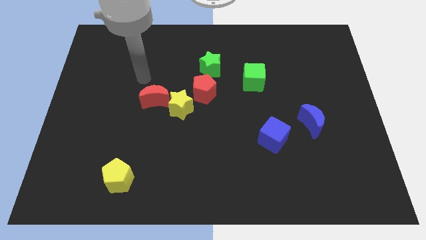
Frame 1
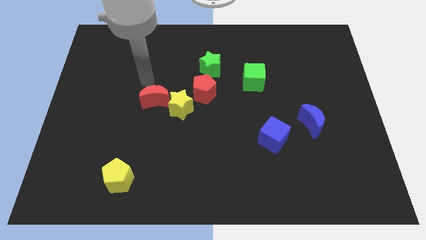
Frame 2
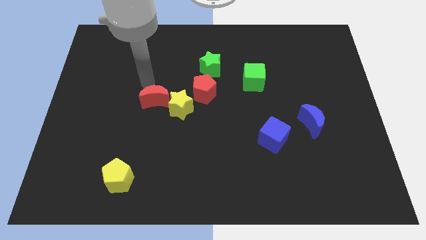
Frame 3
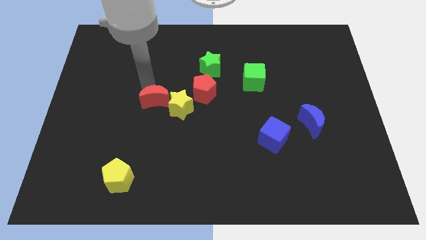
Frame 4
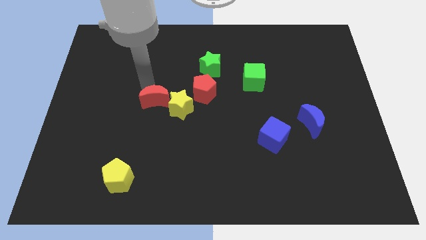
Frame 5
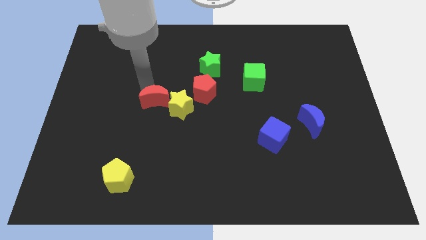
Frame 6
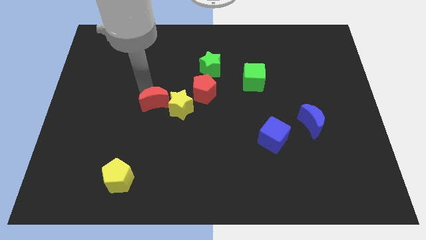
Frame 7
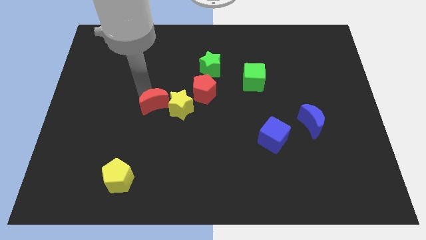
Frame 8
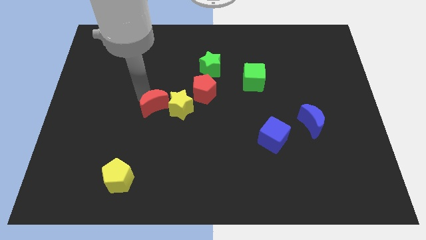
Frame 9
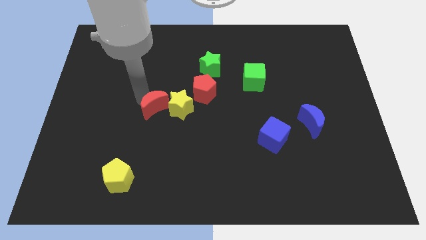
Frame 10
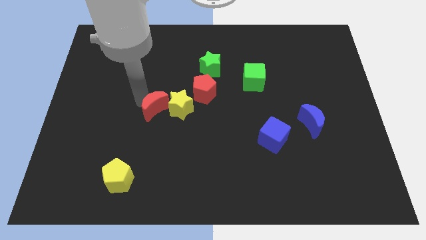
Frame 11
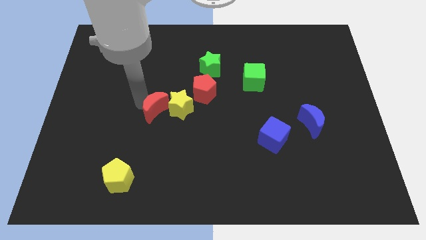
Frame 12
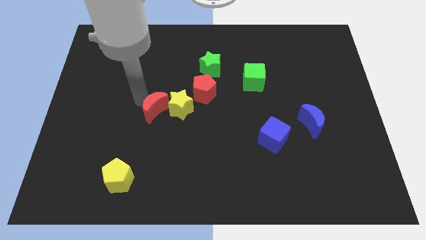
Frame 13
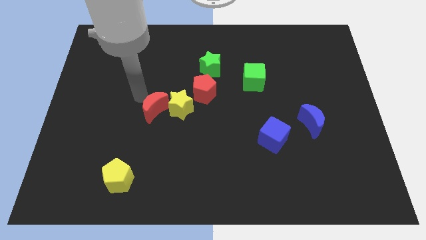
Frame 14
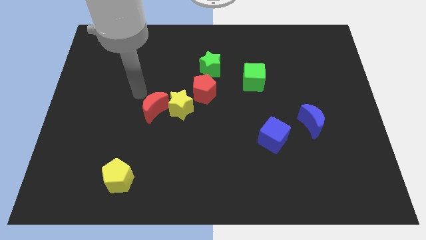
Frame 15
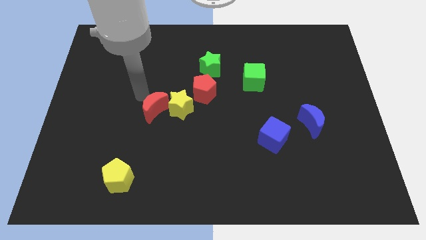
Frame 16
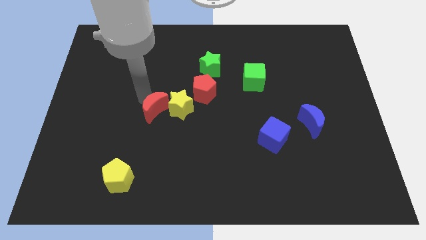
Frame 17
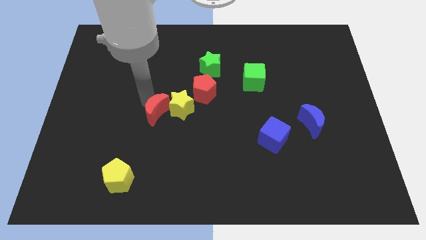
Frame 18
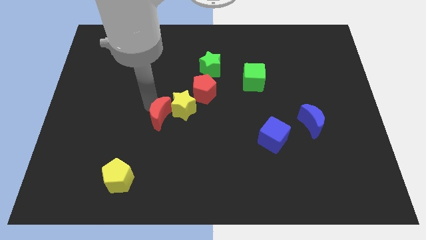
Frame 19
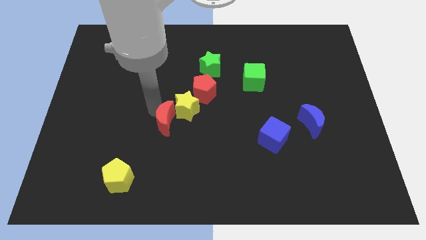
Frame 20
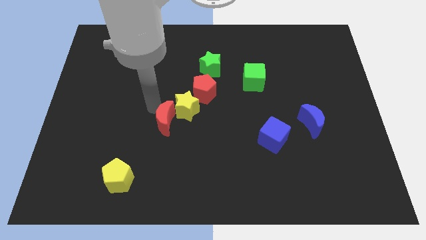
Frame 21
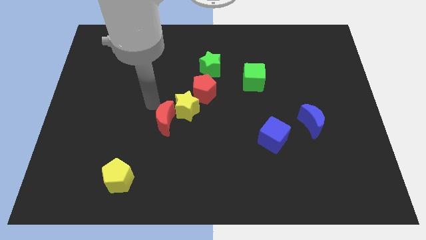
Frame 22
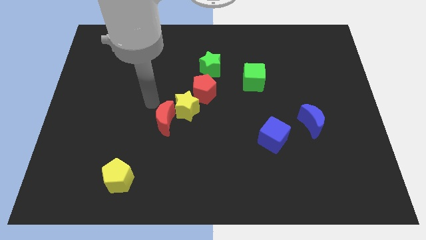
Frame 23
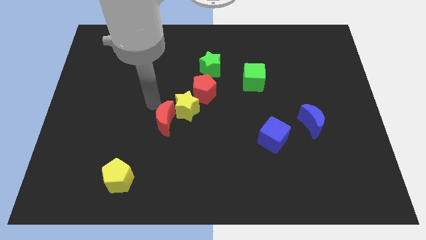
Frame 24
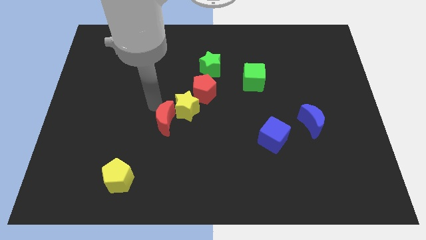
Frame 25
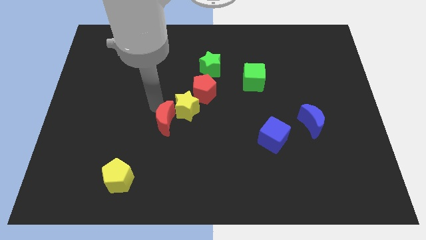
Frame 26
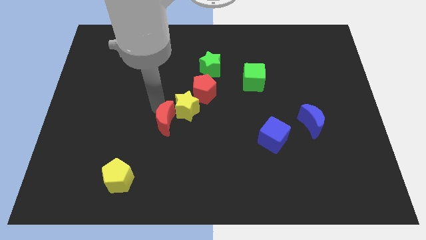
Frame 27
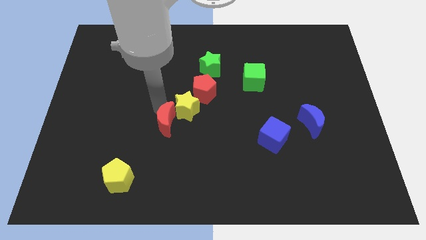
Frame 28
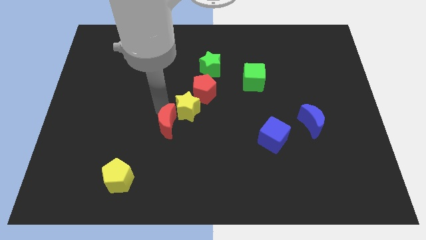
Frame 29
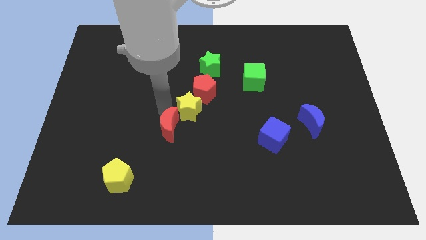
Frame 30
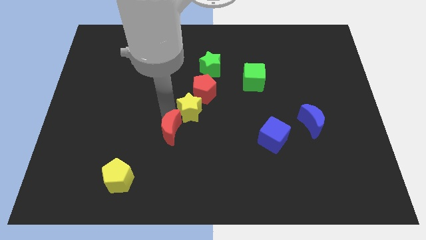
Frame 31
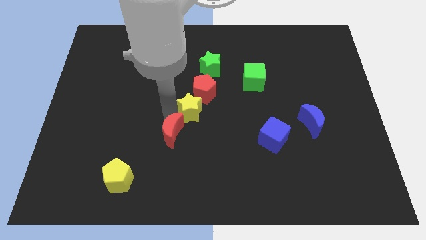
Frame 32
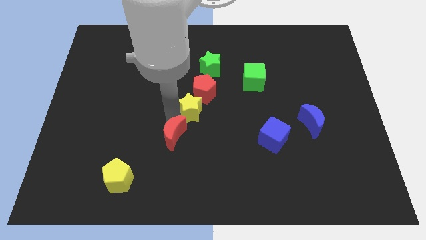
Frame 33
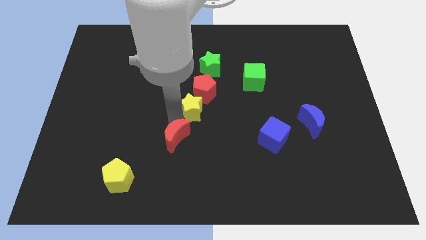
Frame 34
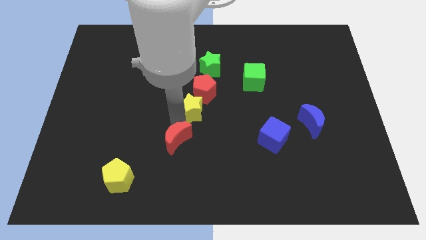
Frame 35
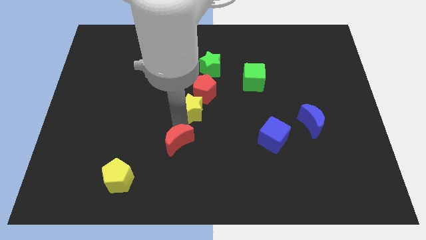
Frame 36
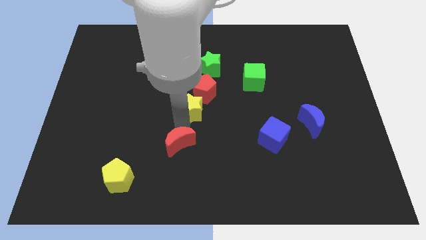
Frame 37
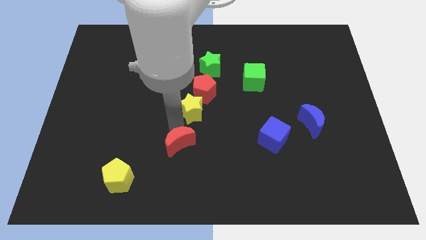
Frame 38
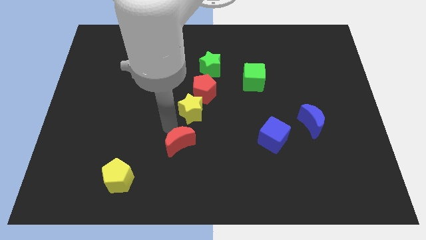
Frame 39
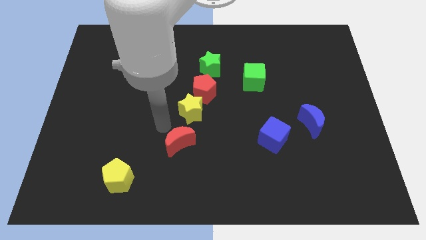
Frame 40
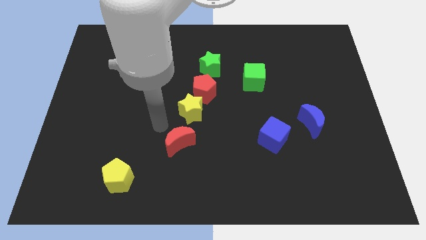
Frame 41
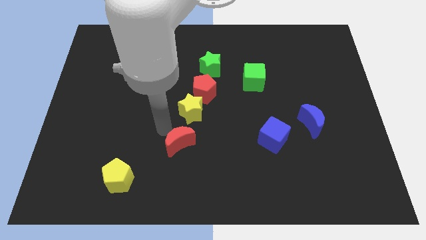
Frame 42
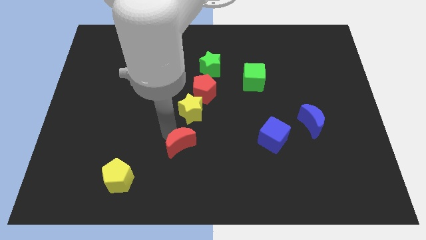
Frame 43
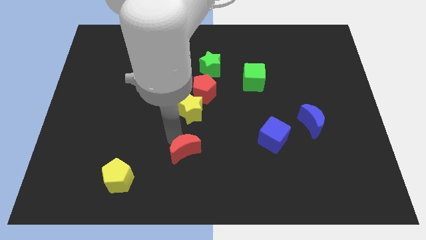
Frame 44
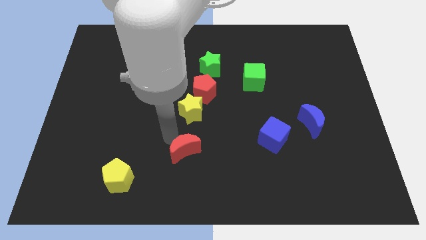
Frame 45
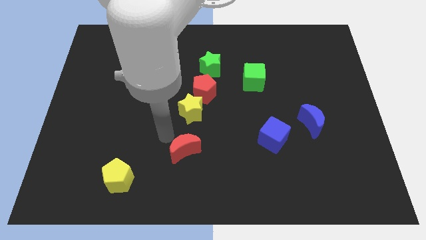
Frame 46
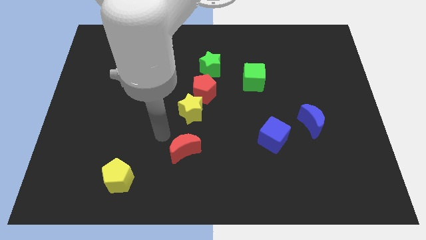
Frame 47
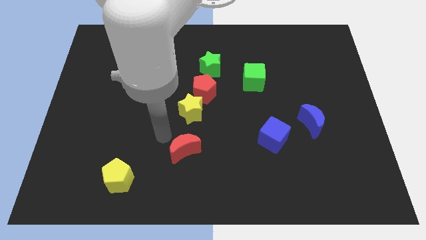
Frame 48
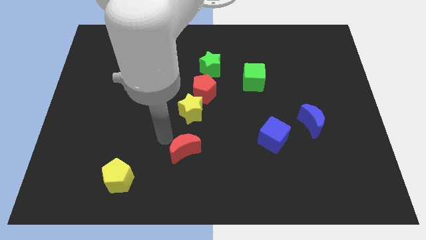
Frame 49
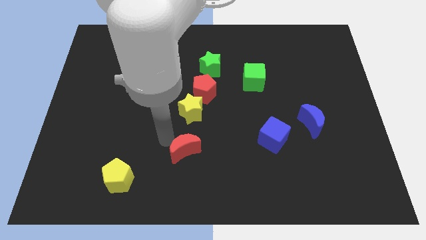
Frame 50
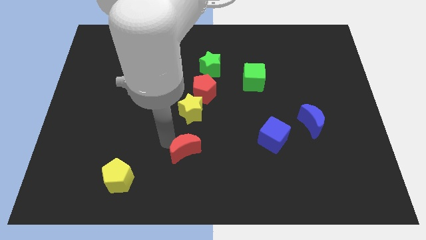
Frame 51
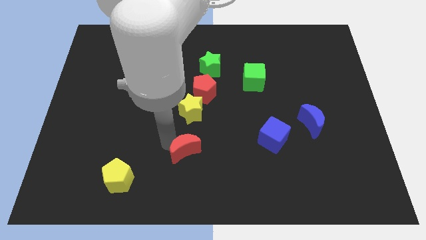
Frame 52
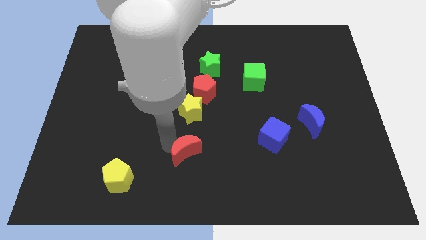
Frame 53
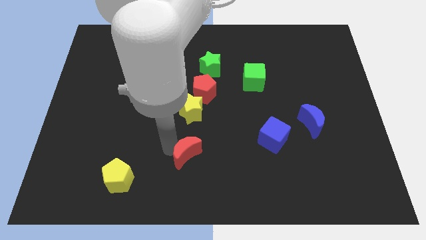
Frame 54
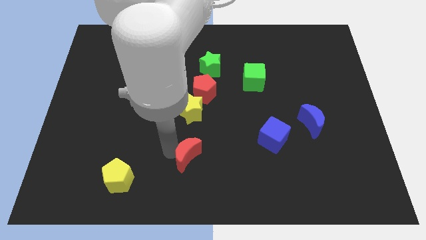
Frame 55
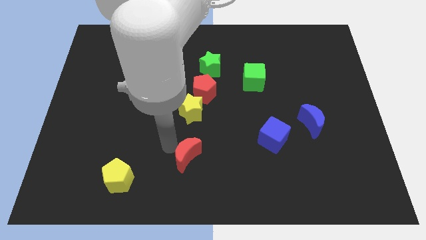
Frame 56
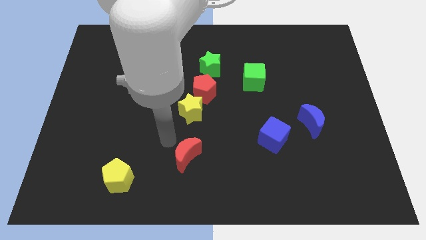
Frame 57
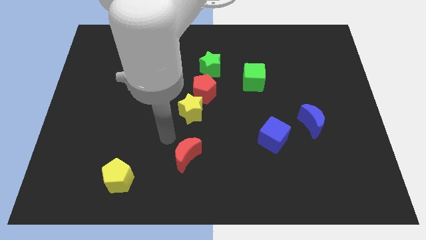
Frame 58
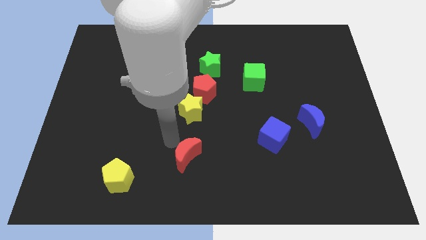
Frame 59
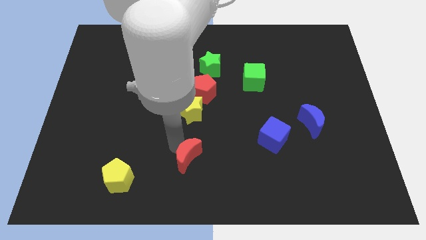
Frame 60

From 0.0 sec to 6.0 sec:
move the red moon to the bottom side

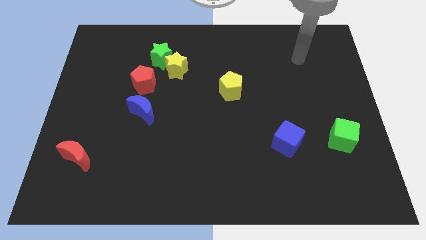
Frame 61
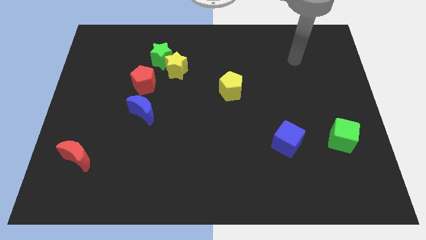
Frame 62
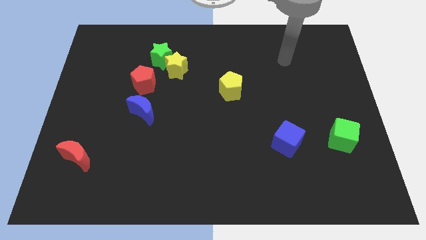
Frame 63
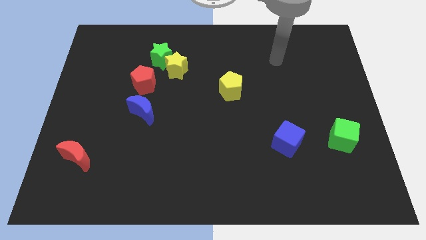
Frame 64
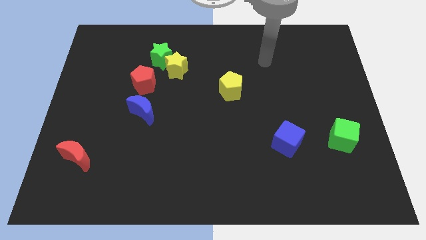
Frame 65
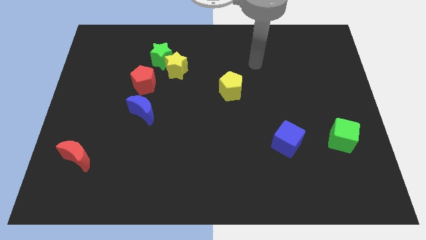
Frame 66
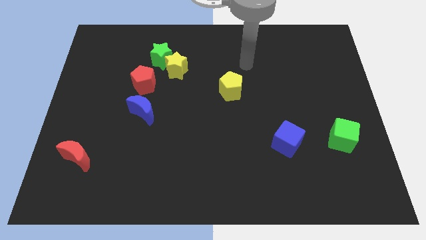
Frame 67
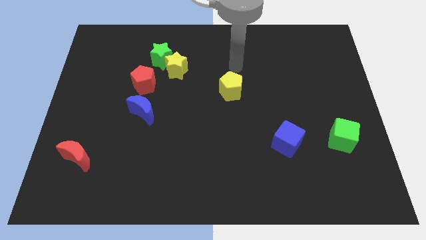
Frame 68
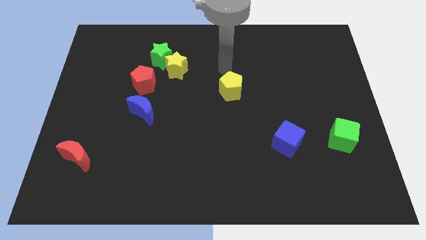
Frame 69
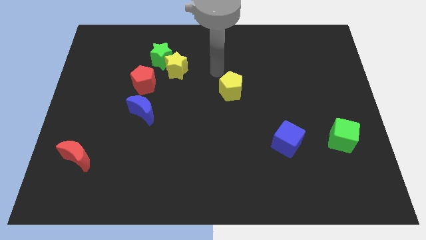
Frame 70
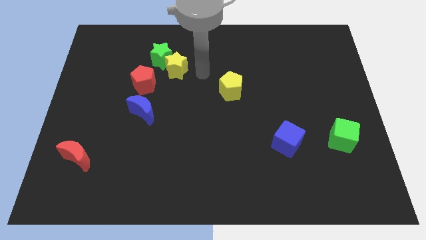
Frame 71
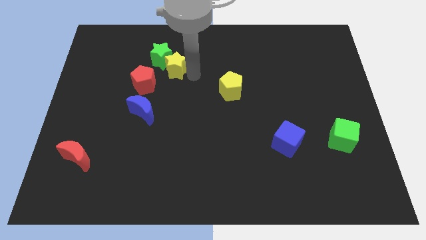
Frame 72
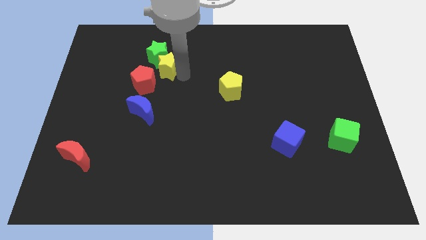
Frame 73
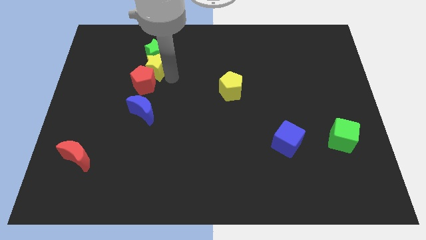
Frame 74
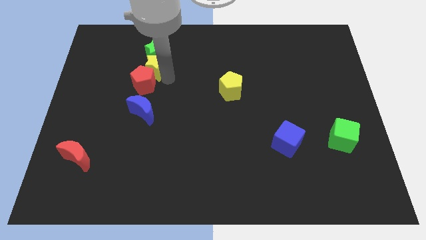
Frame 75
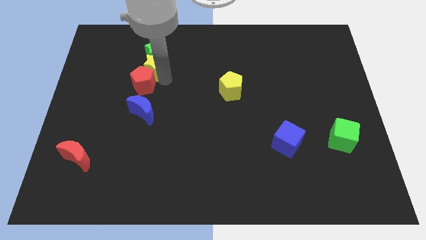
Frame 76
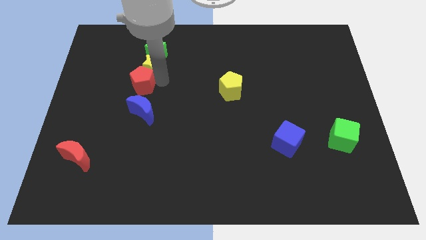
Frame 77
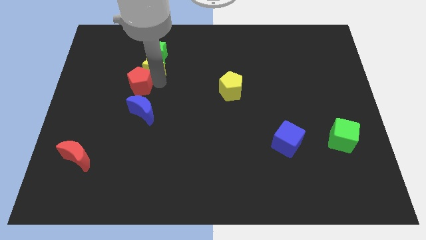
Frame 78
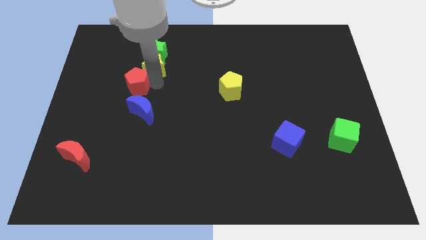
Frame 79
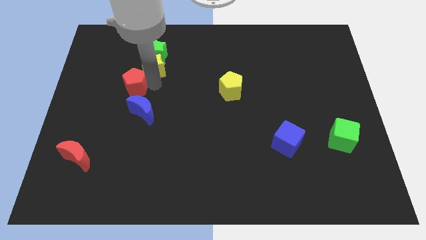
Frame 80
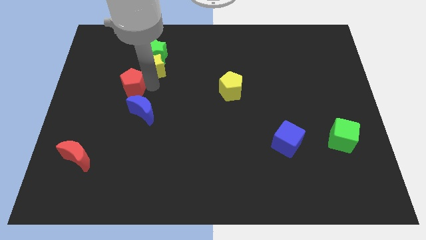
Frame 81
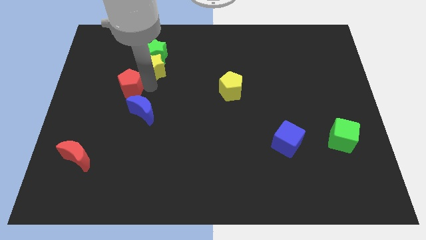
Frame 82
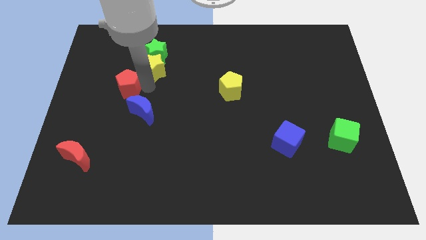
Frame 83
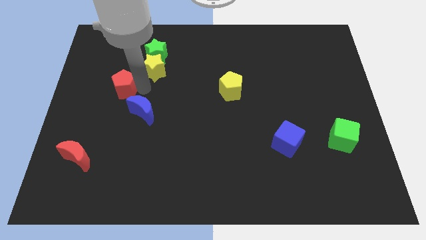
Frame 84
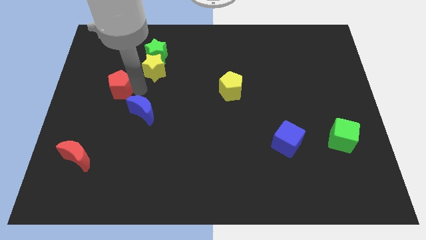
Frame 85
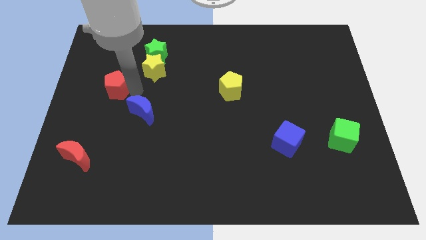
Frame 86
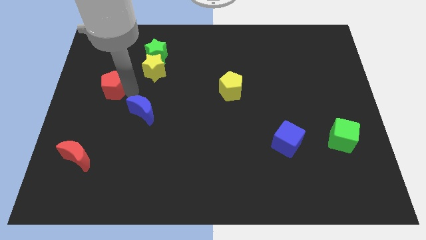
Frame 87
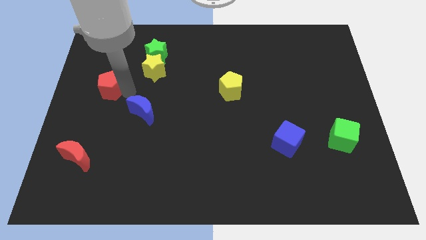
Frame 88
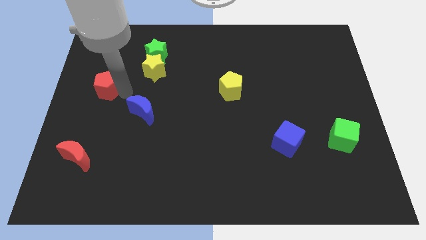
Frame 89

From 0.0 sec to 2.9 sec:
move the red pentagon to the center left
